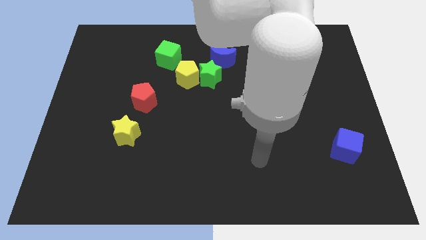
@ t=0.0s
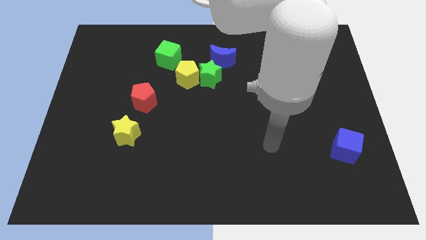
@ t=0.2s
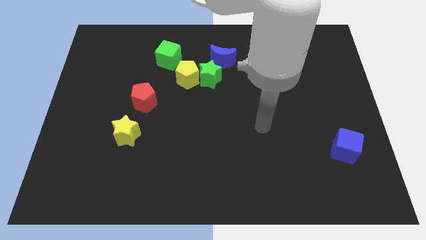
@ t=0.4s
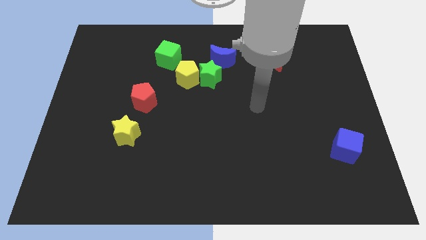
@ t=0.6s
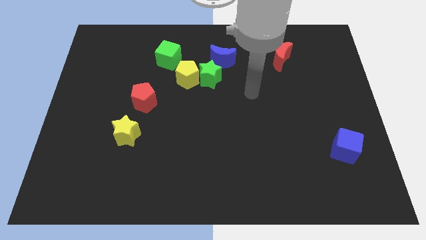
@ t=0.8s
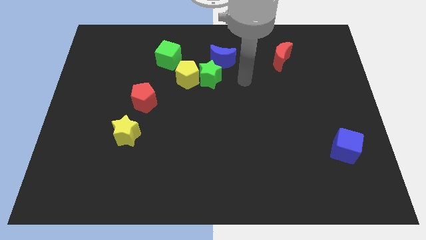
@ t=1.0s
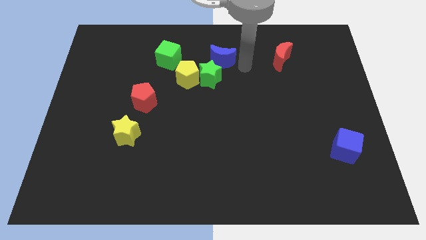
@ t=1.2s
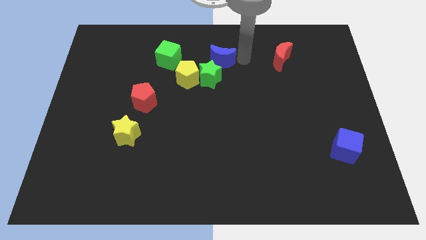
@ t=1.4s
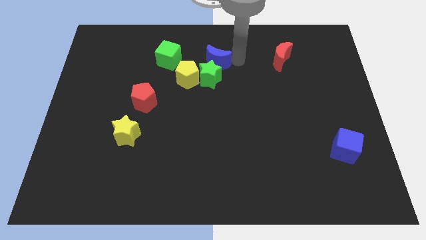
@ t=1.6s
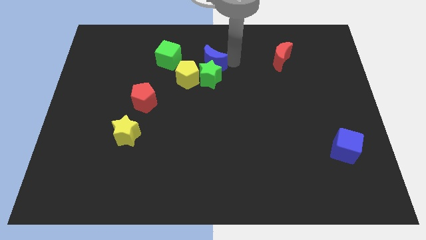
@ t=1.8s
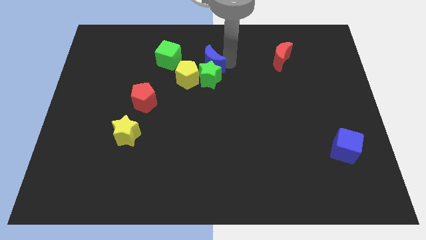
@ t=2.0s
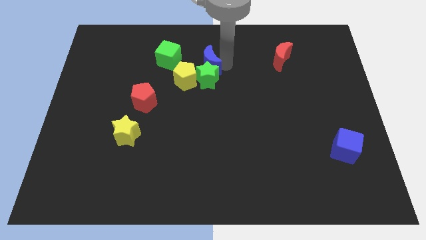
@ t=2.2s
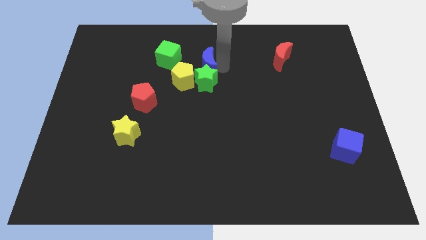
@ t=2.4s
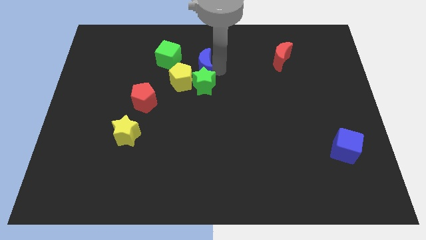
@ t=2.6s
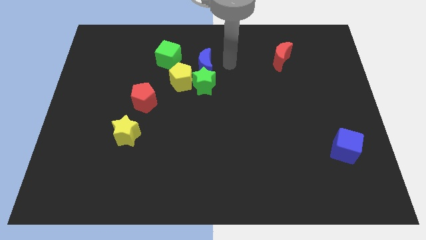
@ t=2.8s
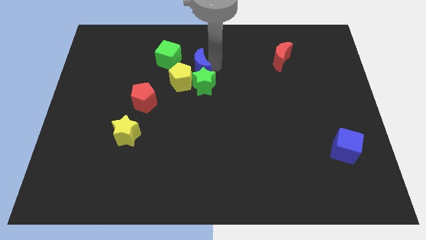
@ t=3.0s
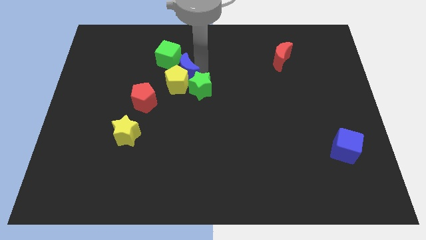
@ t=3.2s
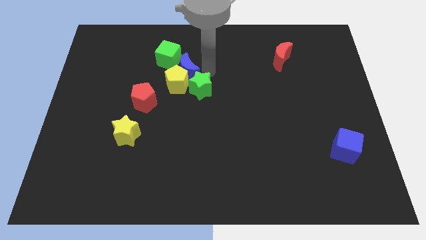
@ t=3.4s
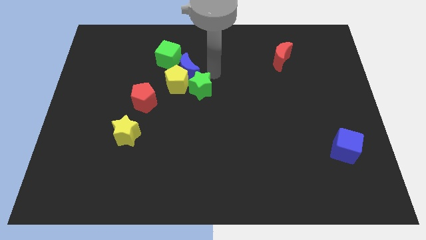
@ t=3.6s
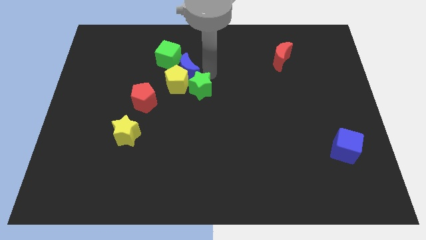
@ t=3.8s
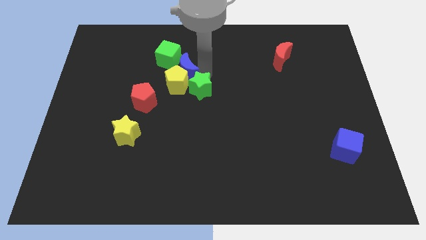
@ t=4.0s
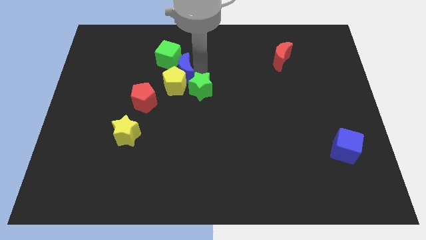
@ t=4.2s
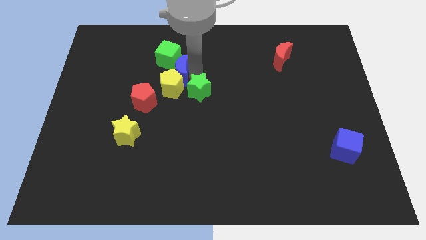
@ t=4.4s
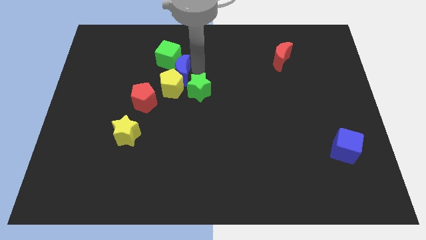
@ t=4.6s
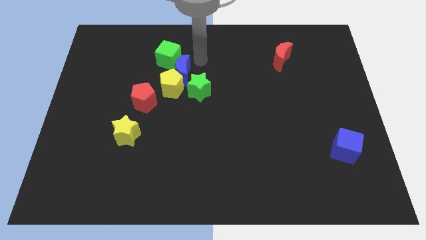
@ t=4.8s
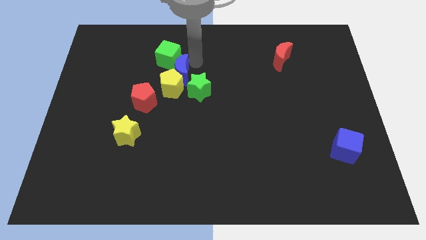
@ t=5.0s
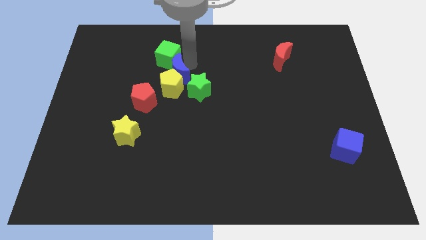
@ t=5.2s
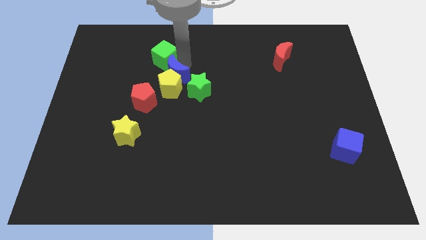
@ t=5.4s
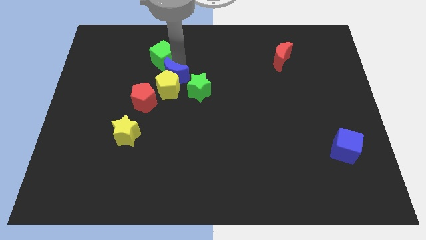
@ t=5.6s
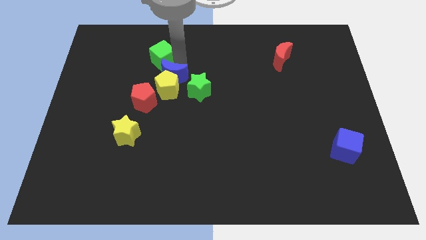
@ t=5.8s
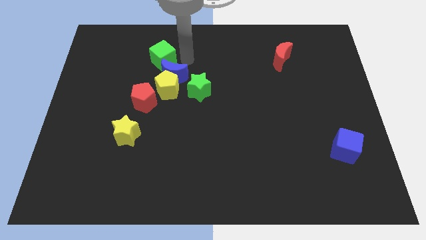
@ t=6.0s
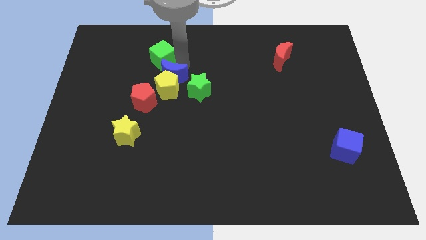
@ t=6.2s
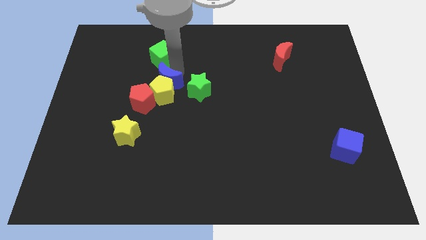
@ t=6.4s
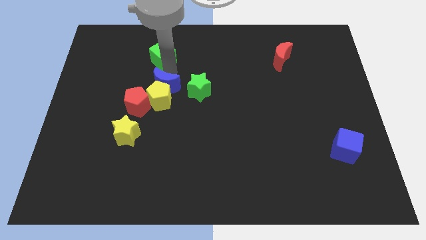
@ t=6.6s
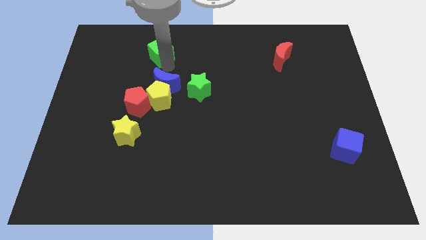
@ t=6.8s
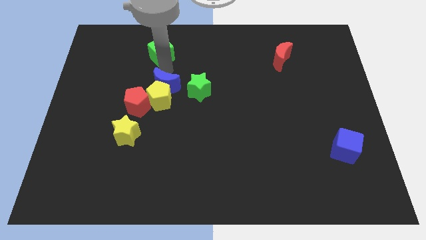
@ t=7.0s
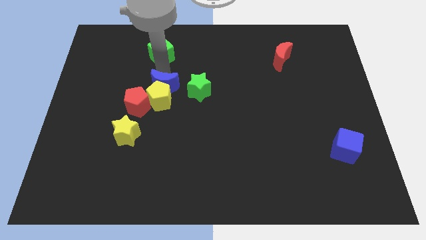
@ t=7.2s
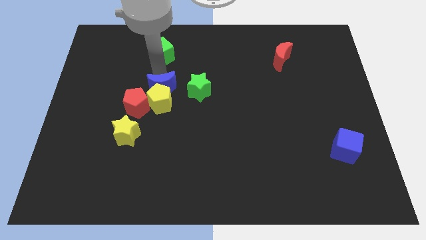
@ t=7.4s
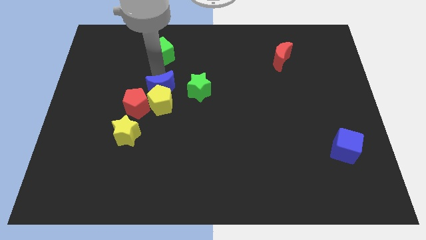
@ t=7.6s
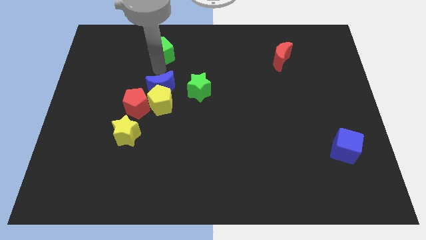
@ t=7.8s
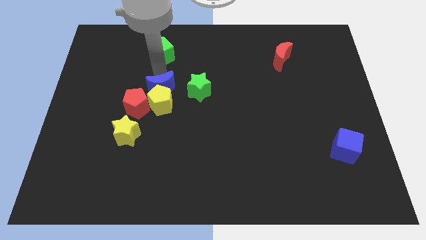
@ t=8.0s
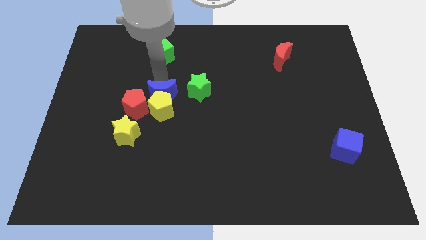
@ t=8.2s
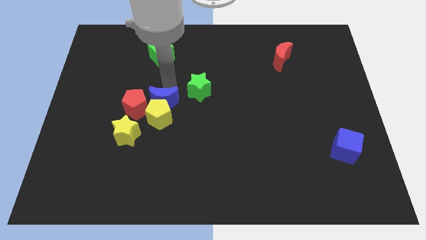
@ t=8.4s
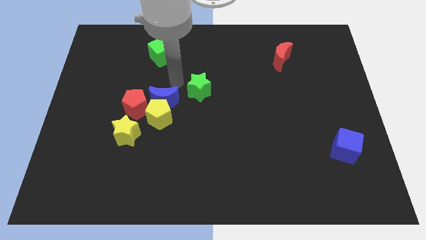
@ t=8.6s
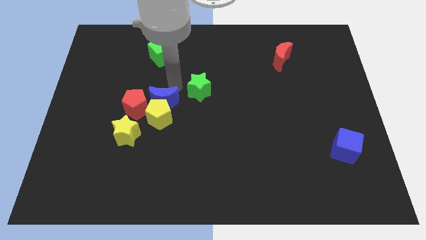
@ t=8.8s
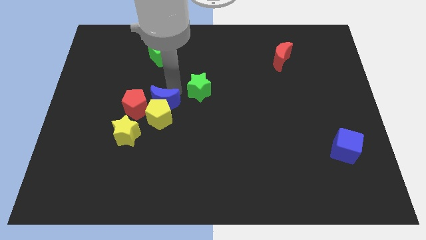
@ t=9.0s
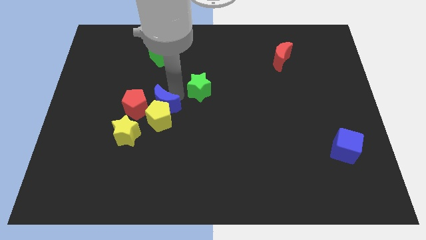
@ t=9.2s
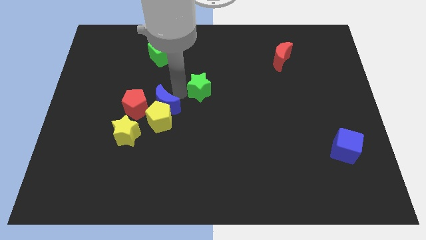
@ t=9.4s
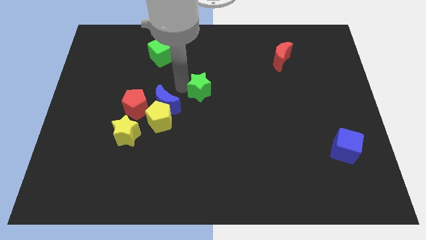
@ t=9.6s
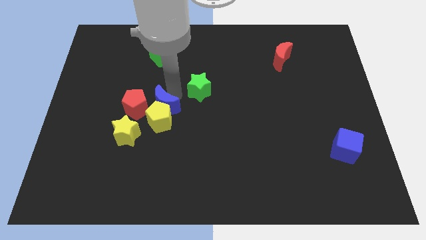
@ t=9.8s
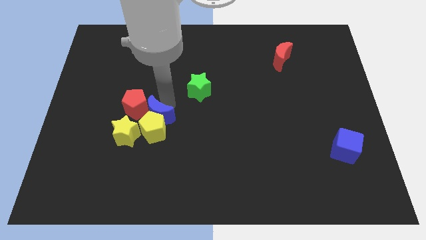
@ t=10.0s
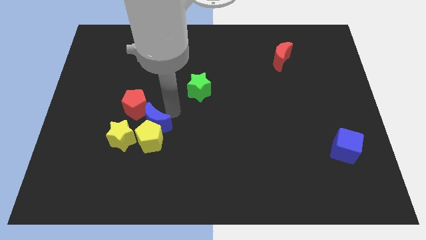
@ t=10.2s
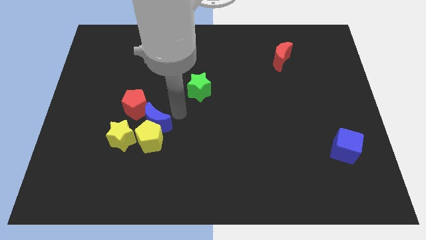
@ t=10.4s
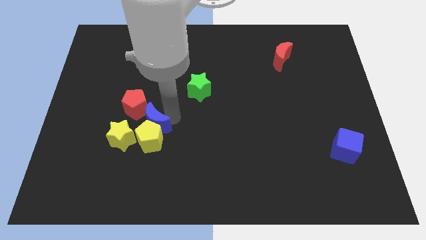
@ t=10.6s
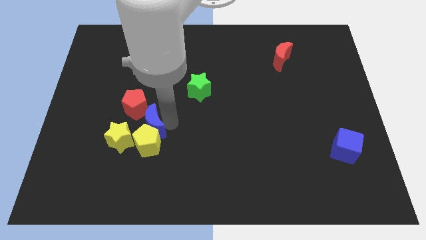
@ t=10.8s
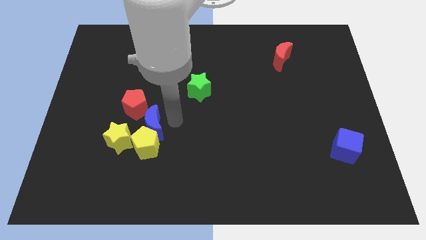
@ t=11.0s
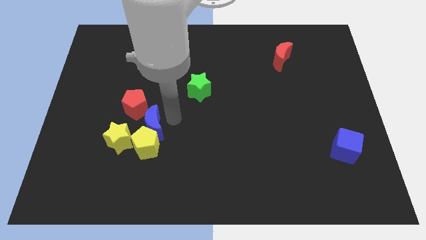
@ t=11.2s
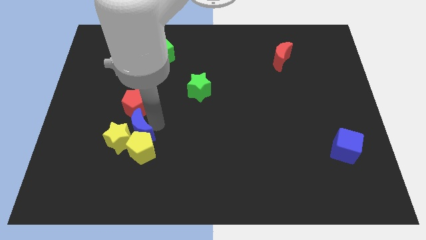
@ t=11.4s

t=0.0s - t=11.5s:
push the blue moon towards the yellow star

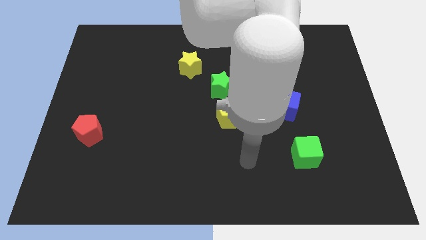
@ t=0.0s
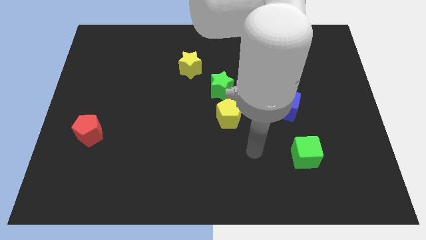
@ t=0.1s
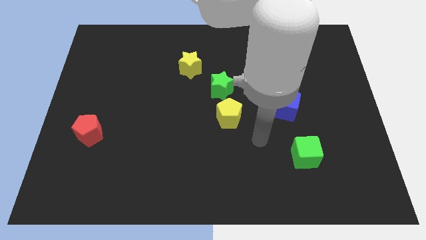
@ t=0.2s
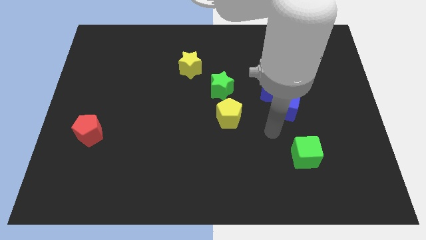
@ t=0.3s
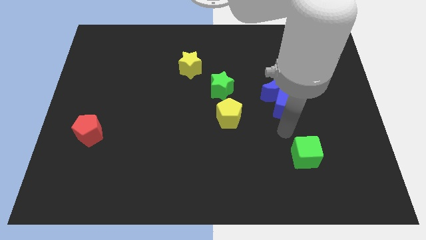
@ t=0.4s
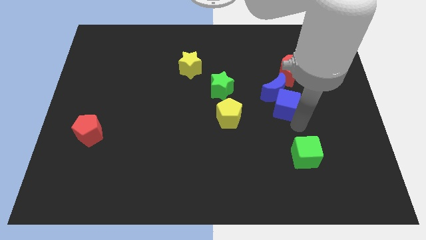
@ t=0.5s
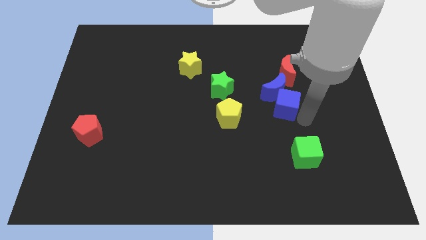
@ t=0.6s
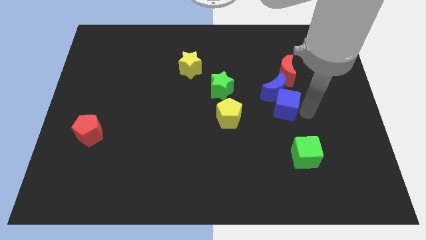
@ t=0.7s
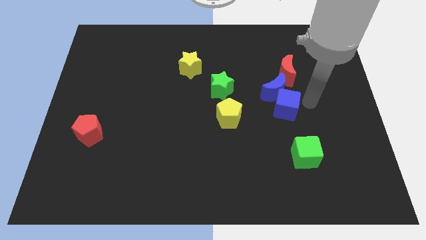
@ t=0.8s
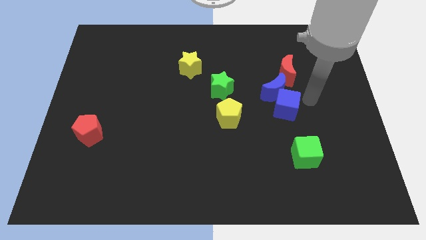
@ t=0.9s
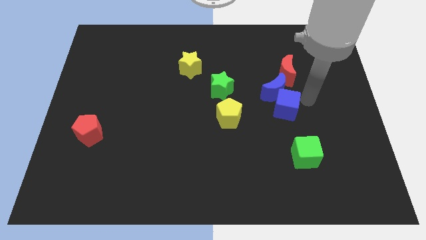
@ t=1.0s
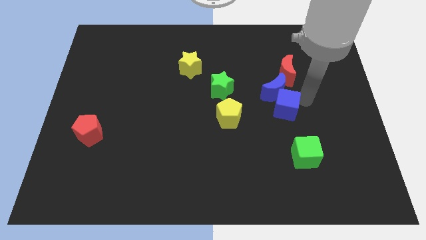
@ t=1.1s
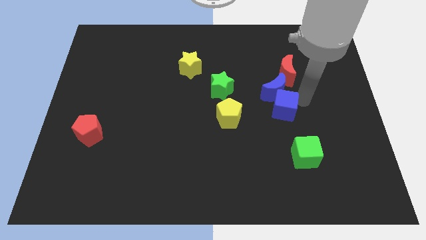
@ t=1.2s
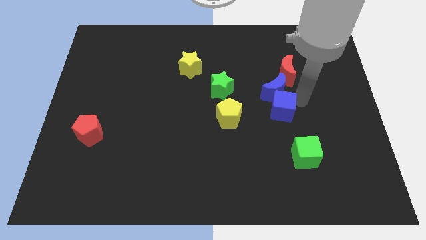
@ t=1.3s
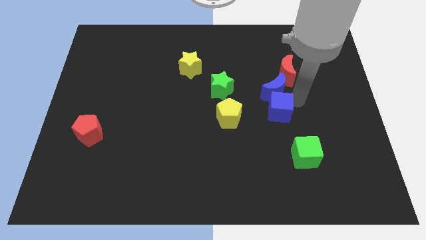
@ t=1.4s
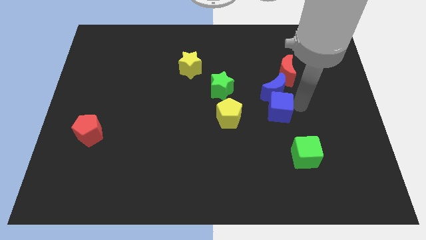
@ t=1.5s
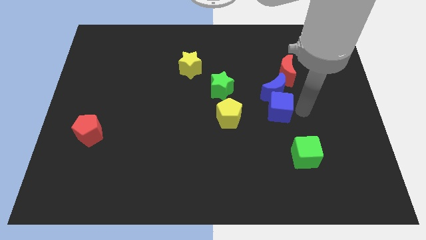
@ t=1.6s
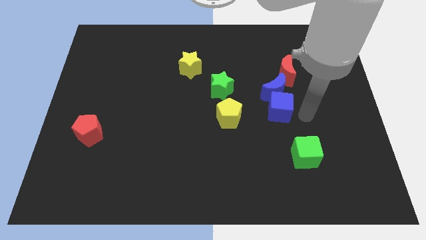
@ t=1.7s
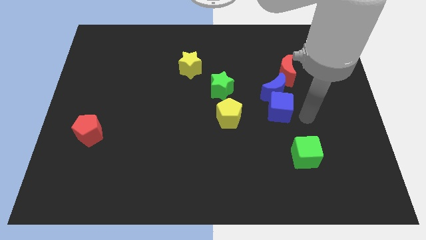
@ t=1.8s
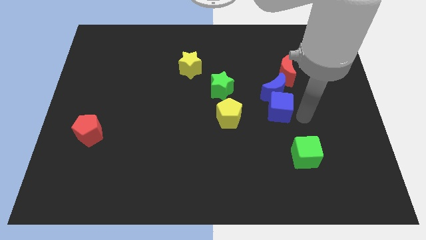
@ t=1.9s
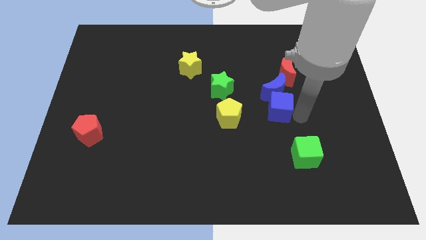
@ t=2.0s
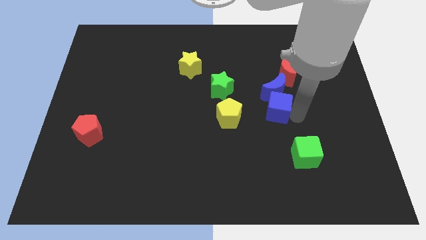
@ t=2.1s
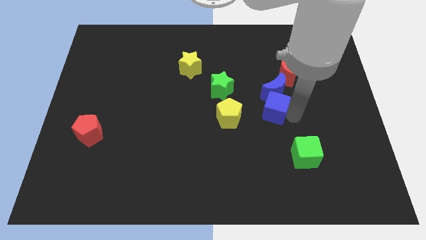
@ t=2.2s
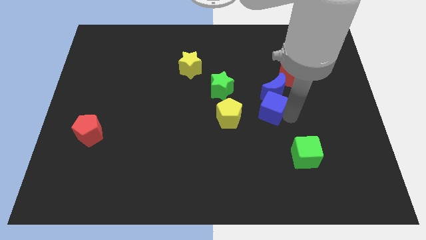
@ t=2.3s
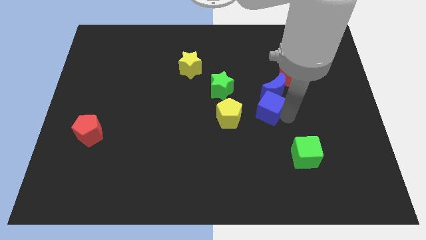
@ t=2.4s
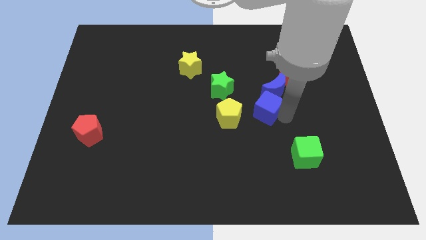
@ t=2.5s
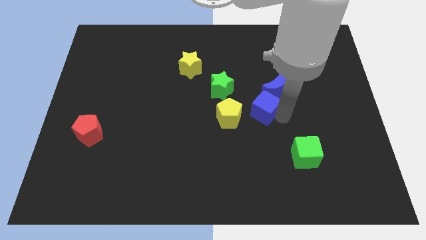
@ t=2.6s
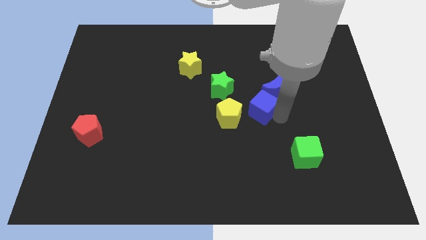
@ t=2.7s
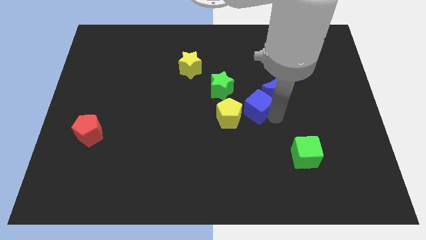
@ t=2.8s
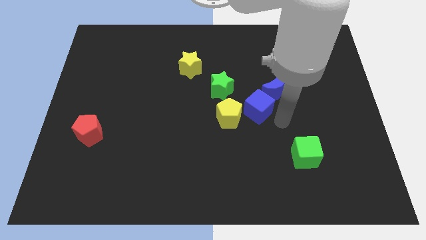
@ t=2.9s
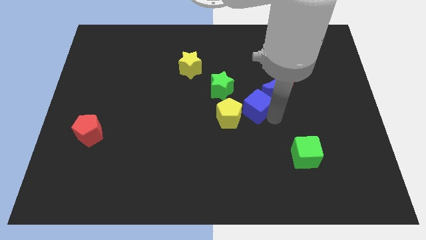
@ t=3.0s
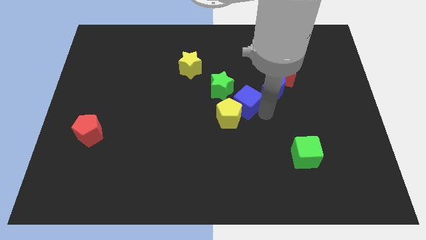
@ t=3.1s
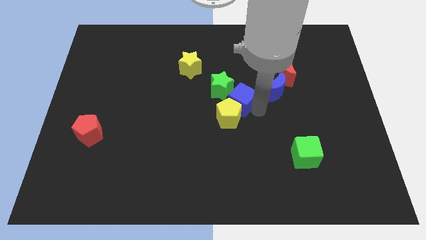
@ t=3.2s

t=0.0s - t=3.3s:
push the blue cube next to the green star
